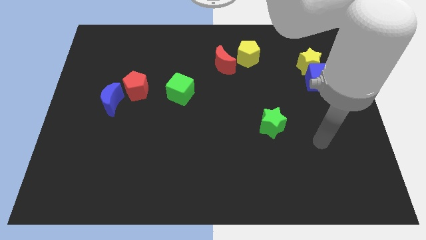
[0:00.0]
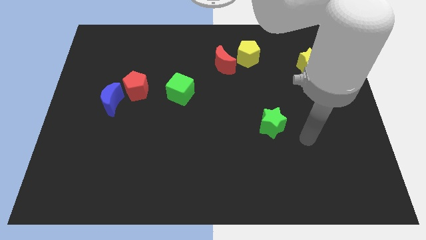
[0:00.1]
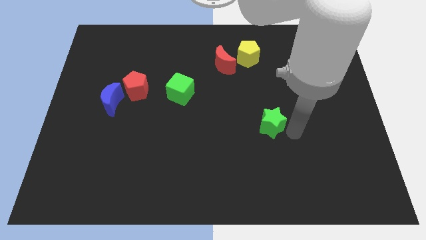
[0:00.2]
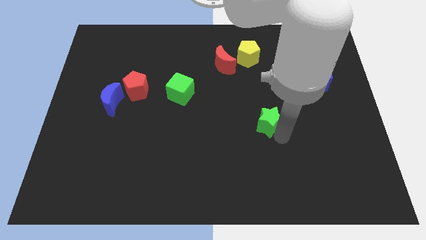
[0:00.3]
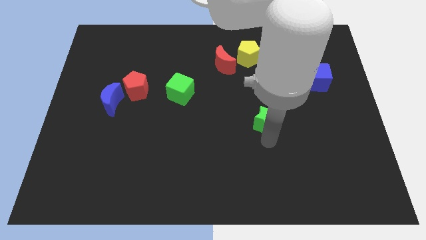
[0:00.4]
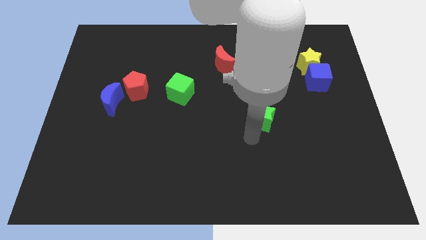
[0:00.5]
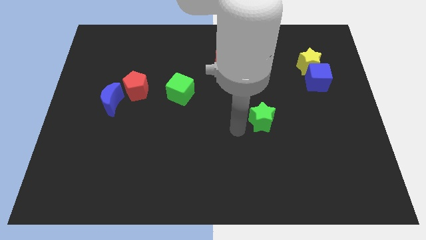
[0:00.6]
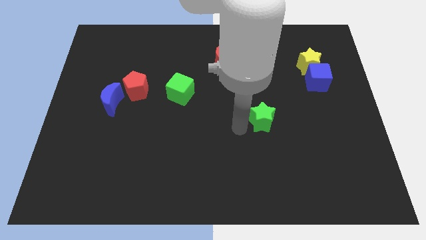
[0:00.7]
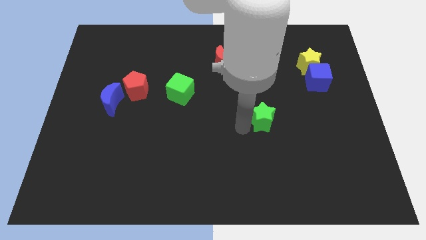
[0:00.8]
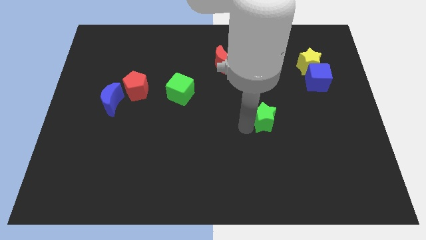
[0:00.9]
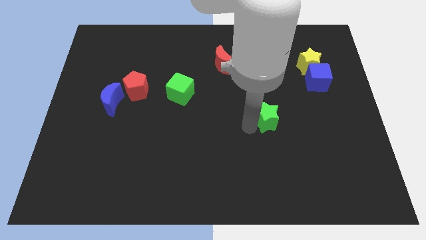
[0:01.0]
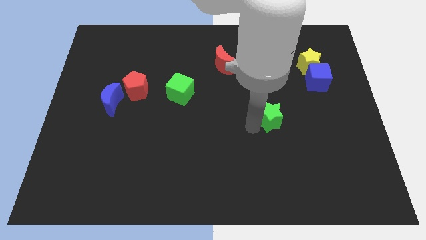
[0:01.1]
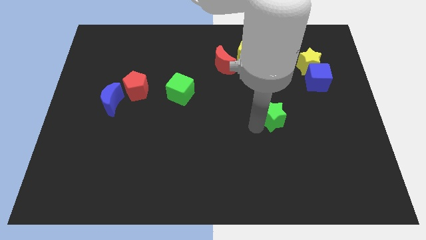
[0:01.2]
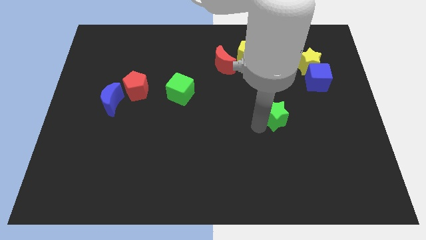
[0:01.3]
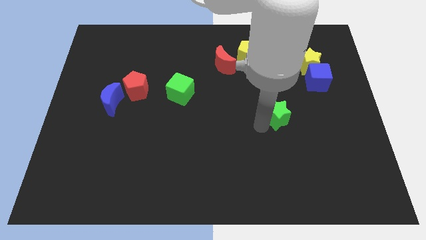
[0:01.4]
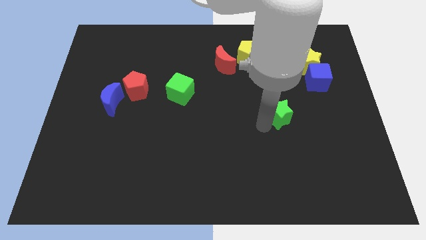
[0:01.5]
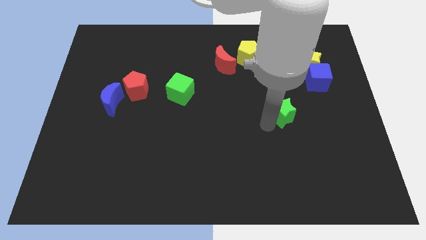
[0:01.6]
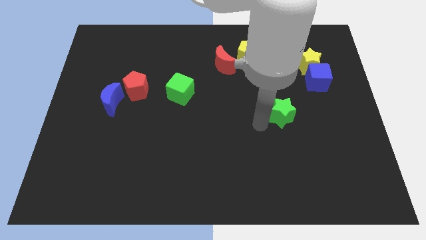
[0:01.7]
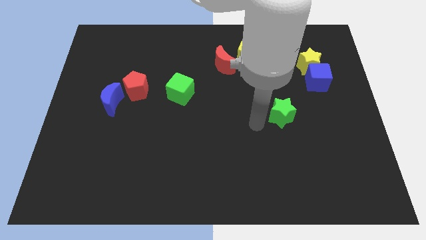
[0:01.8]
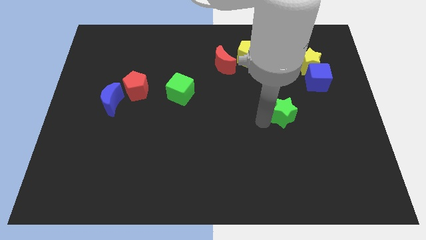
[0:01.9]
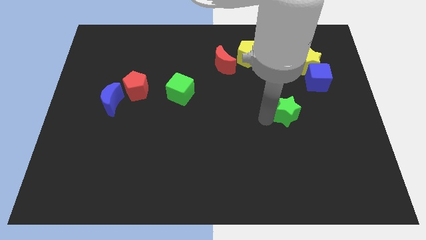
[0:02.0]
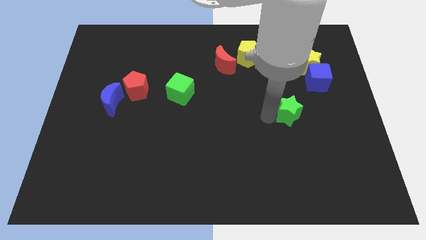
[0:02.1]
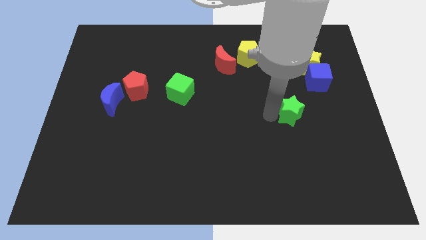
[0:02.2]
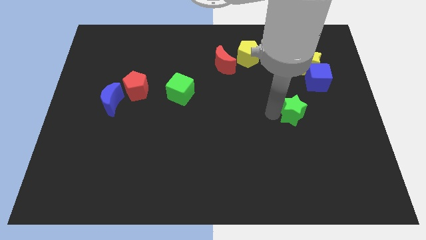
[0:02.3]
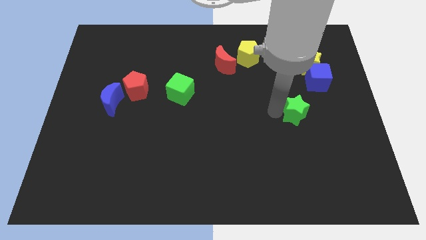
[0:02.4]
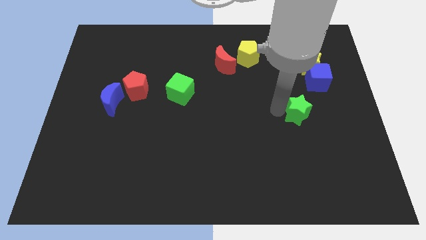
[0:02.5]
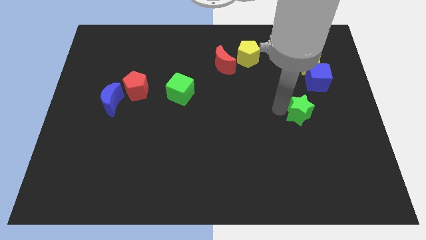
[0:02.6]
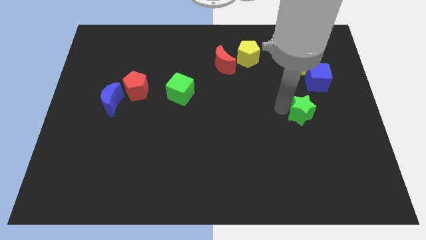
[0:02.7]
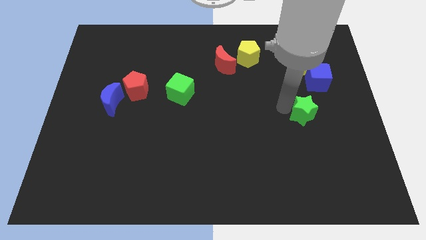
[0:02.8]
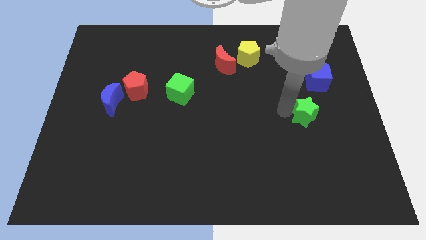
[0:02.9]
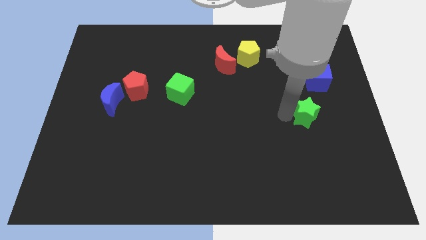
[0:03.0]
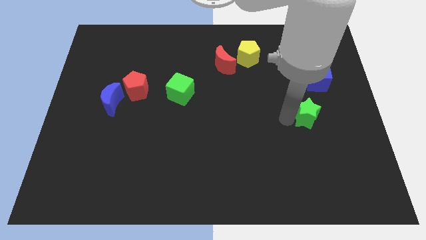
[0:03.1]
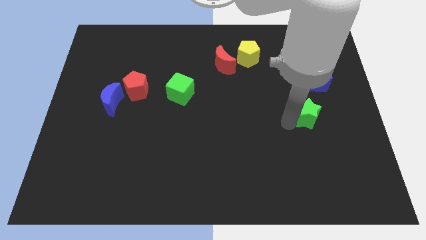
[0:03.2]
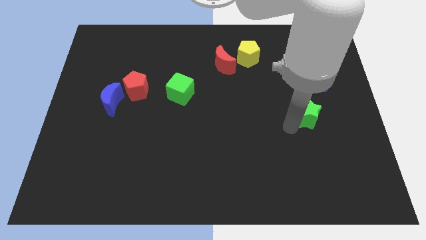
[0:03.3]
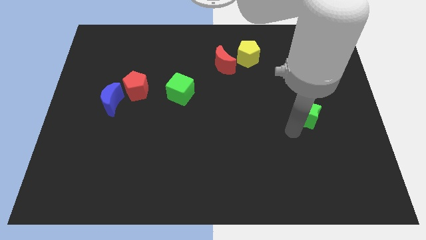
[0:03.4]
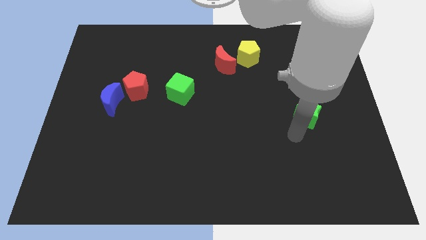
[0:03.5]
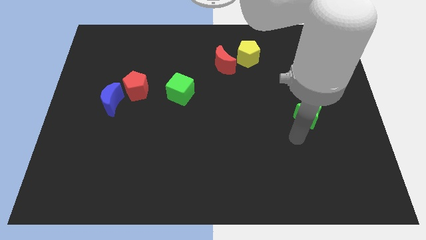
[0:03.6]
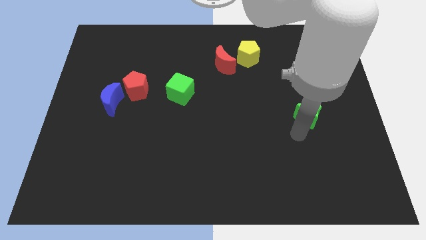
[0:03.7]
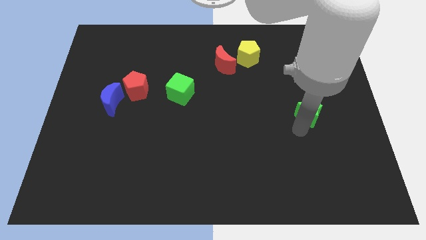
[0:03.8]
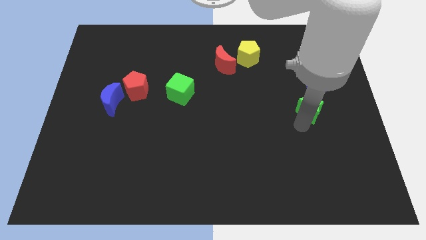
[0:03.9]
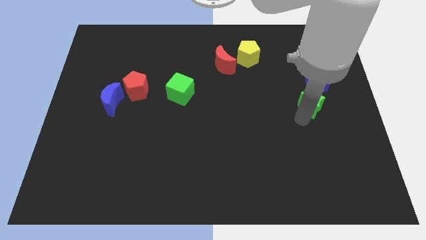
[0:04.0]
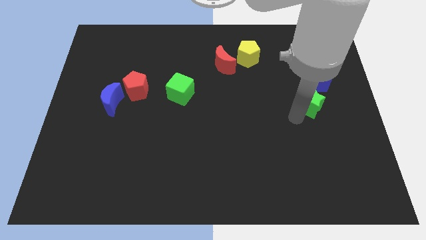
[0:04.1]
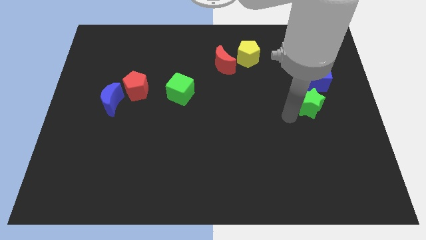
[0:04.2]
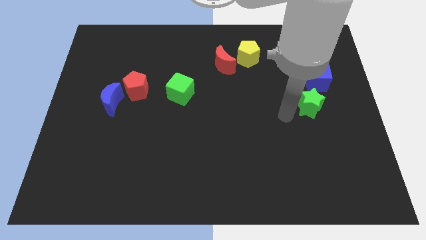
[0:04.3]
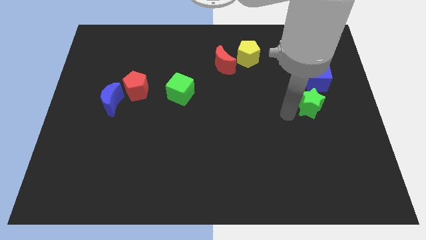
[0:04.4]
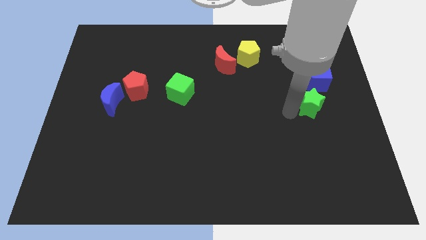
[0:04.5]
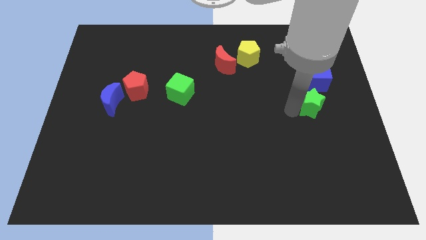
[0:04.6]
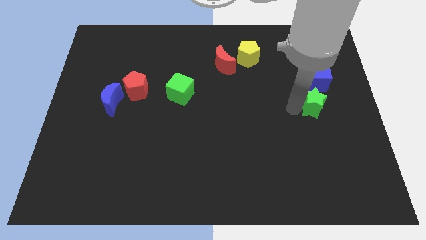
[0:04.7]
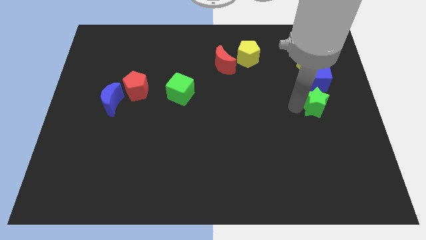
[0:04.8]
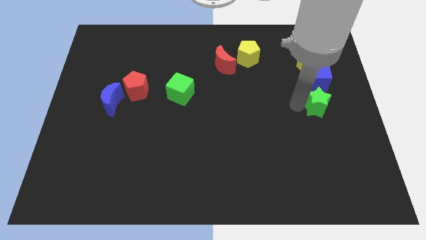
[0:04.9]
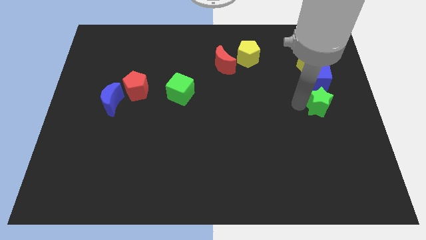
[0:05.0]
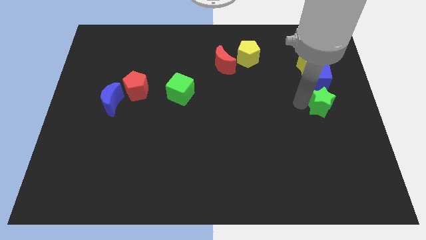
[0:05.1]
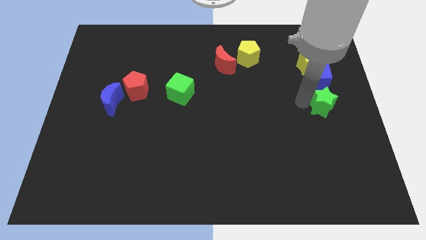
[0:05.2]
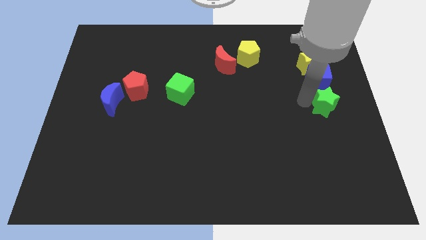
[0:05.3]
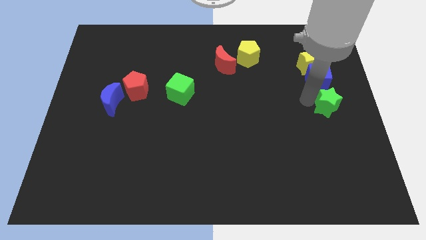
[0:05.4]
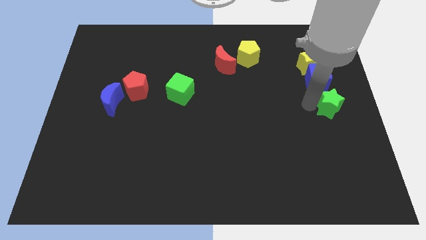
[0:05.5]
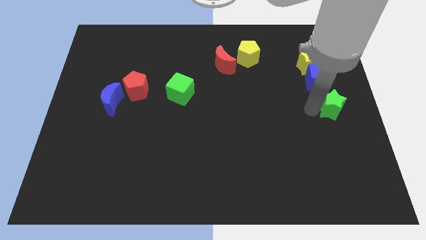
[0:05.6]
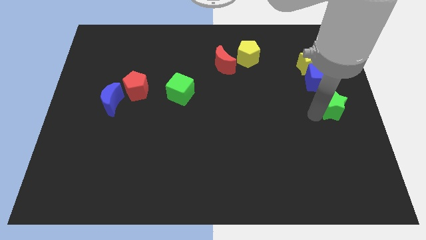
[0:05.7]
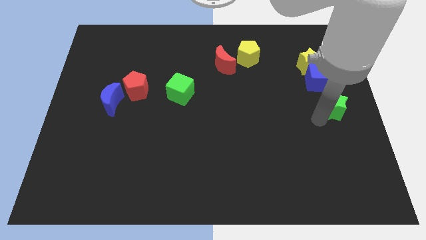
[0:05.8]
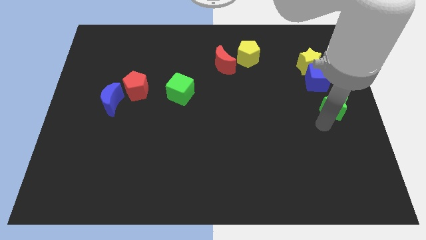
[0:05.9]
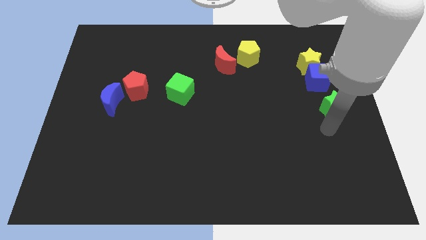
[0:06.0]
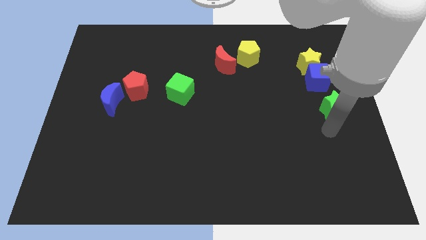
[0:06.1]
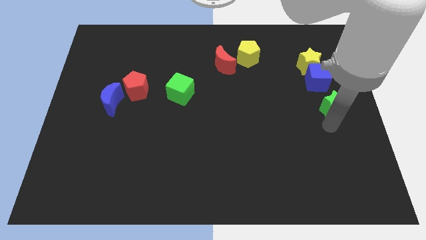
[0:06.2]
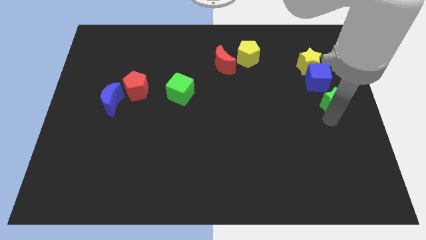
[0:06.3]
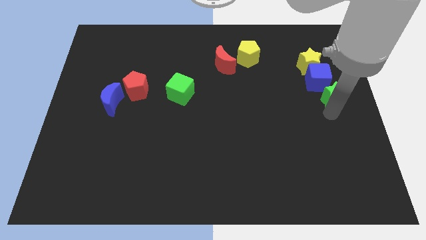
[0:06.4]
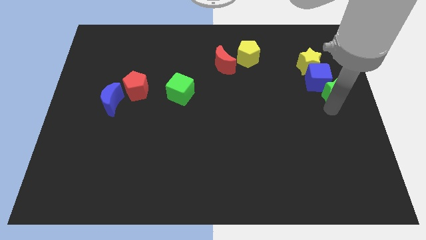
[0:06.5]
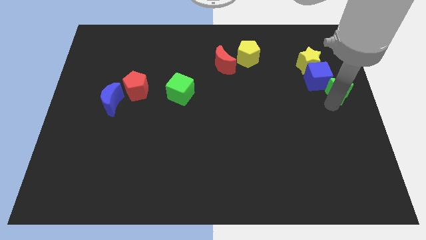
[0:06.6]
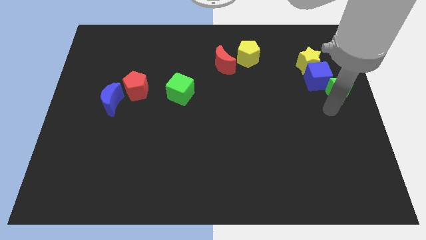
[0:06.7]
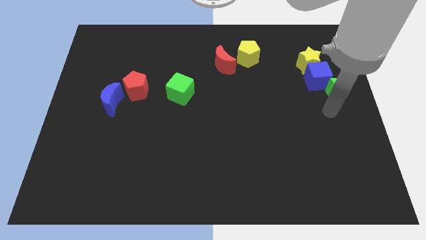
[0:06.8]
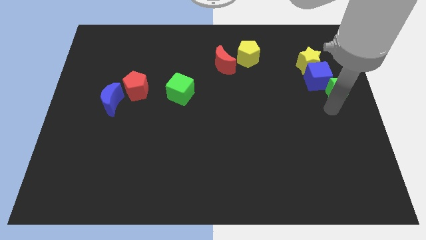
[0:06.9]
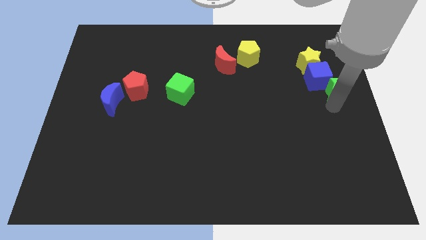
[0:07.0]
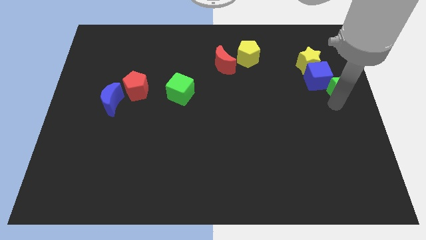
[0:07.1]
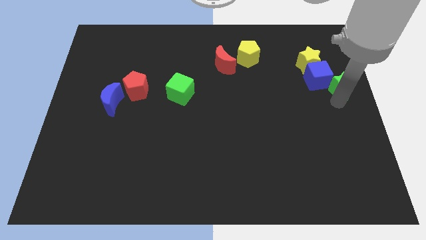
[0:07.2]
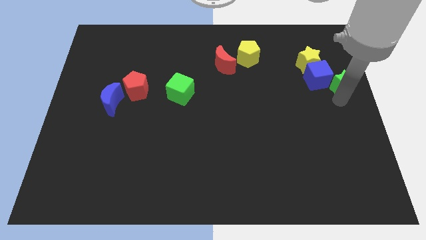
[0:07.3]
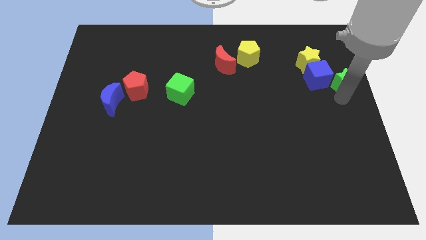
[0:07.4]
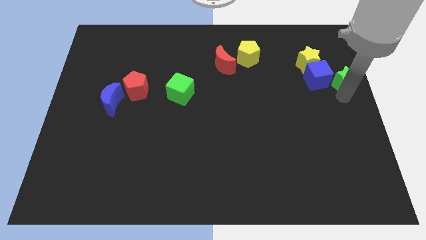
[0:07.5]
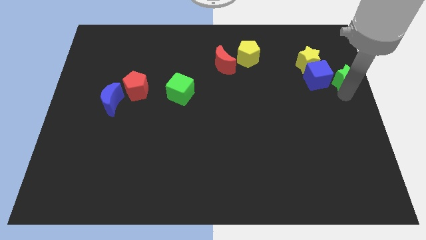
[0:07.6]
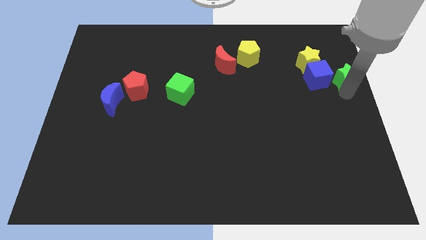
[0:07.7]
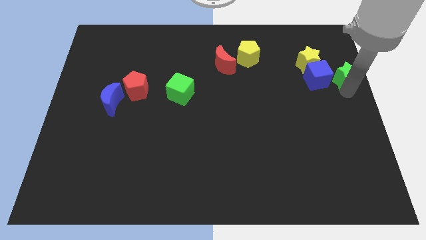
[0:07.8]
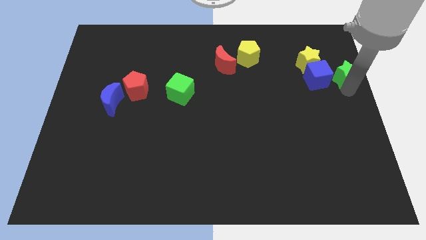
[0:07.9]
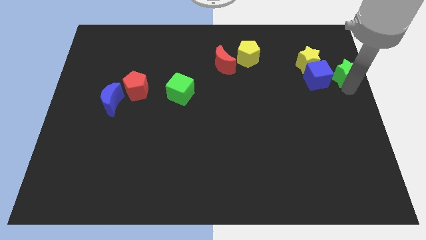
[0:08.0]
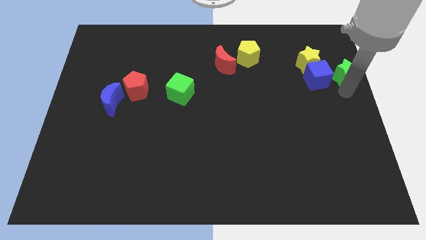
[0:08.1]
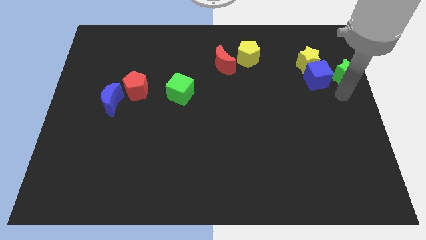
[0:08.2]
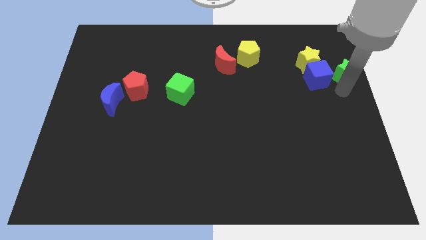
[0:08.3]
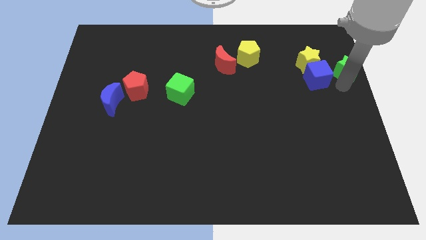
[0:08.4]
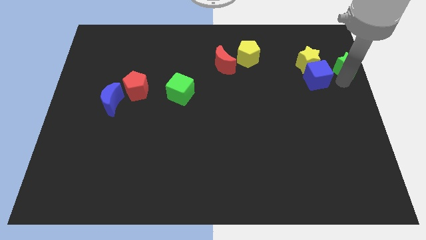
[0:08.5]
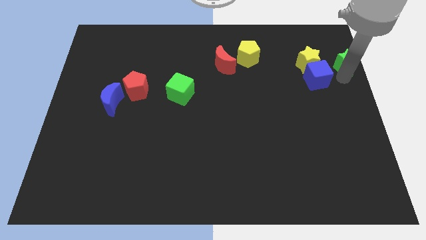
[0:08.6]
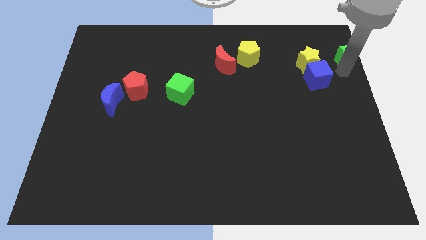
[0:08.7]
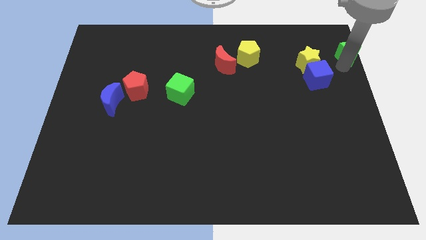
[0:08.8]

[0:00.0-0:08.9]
push the green star to the top right
